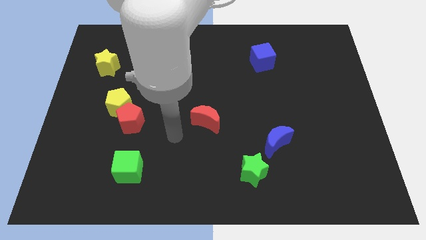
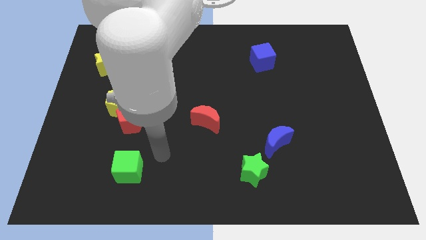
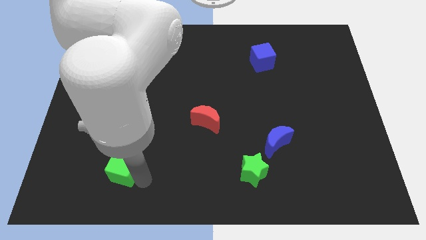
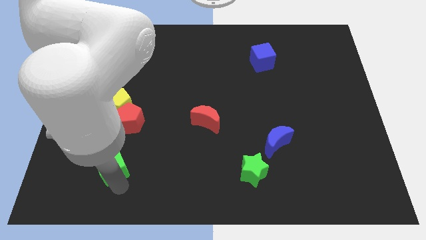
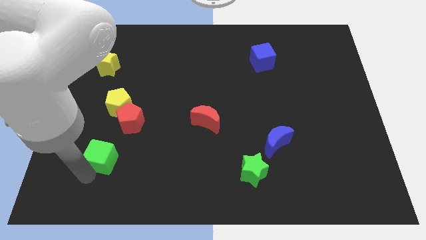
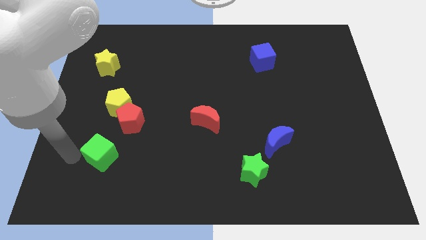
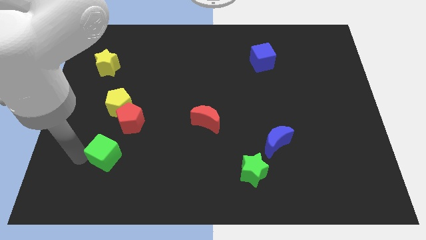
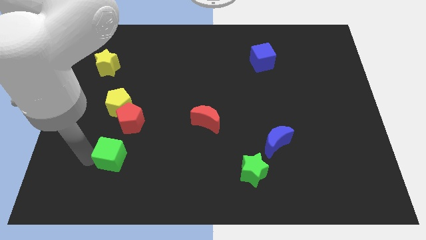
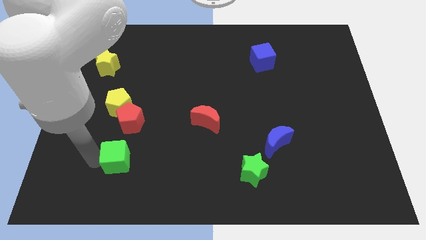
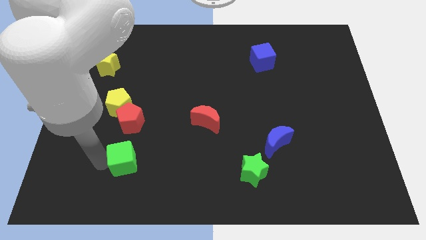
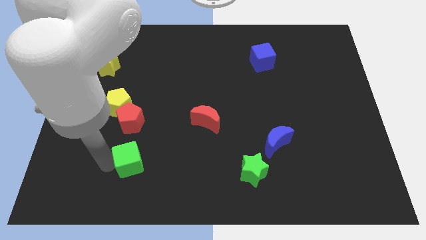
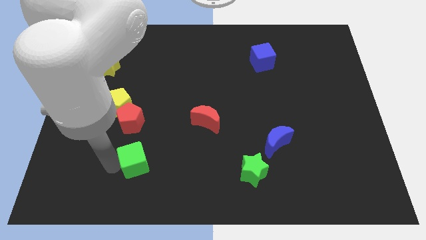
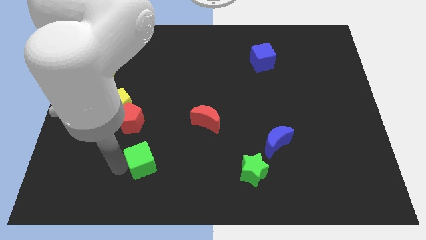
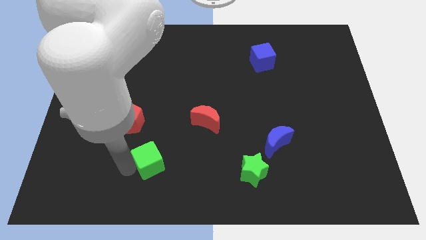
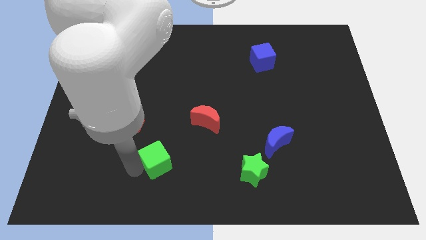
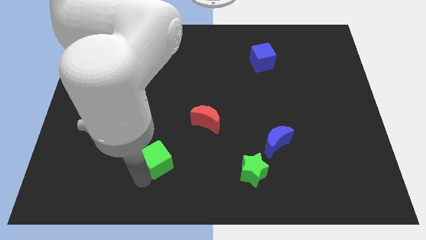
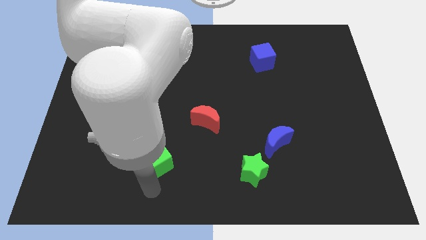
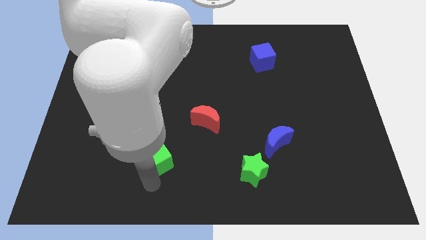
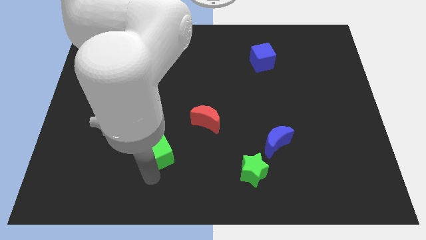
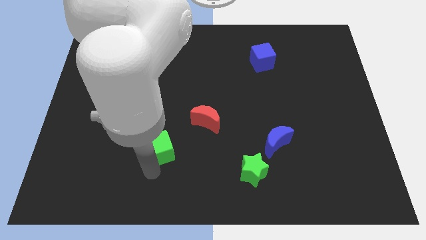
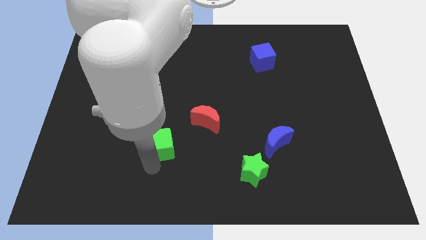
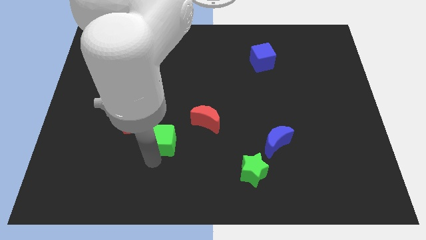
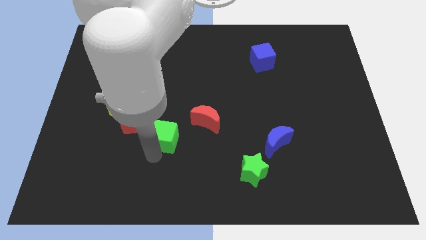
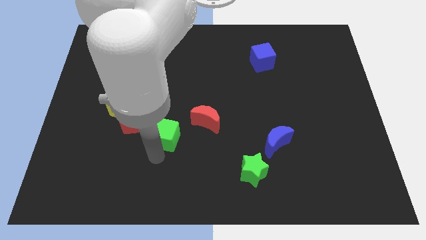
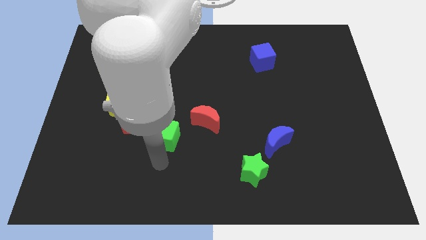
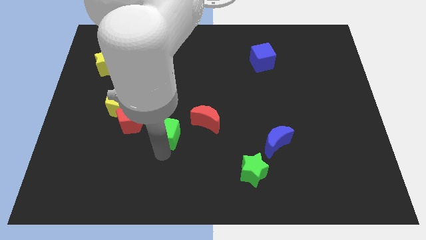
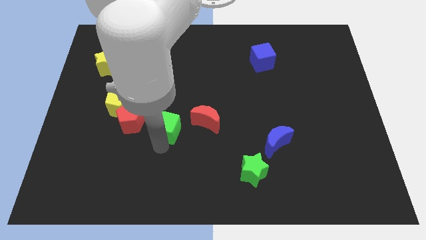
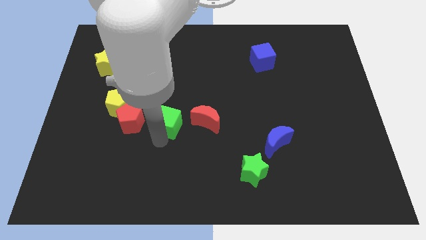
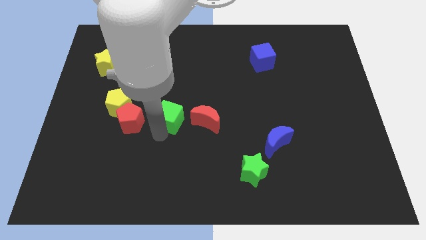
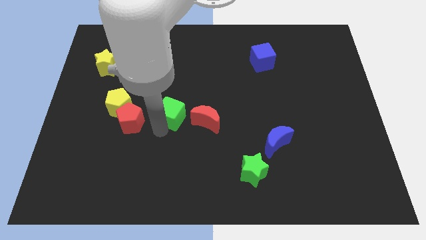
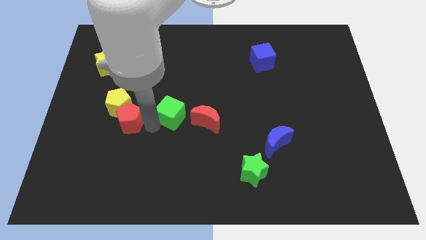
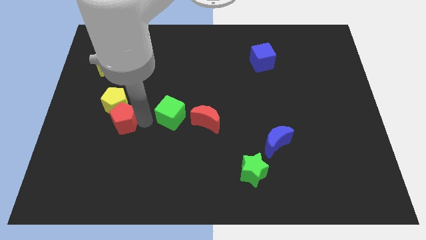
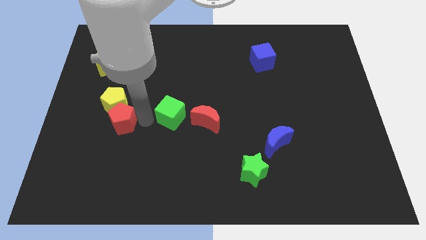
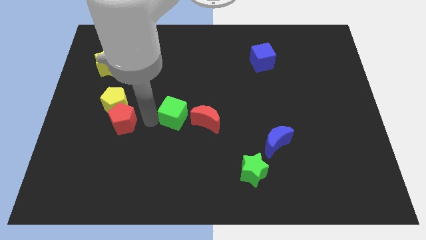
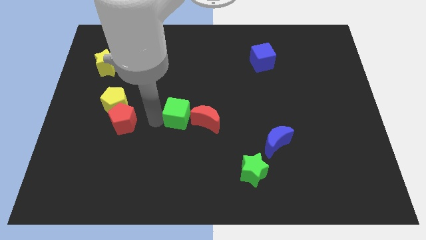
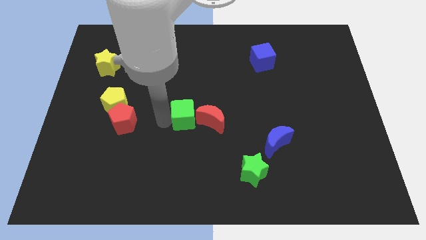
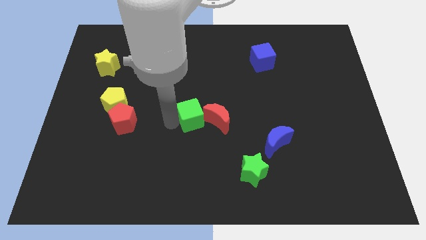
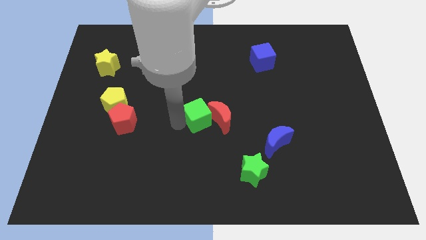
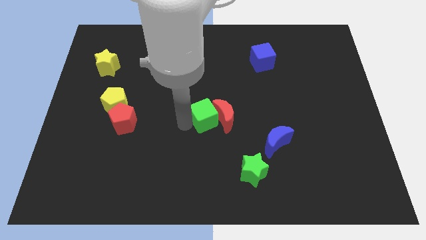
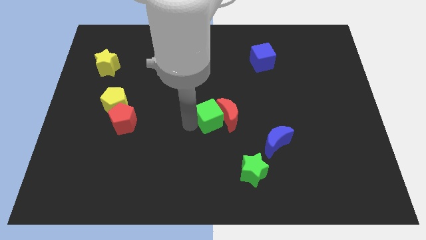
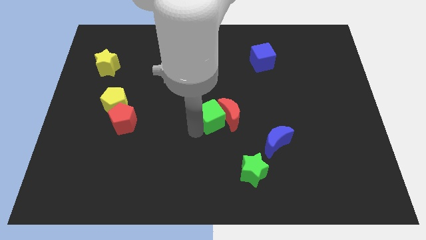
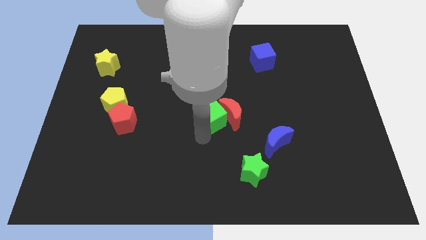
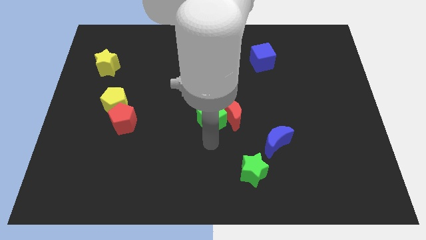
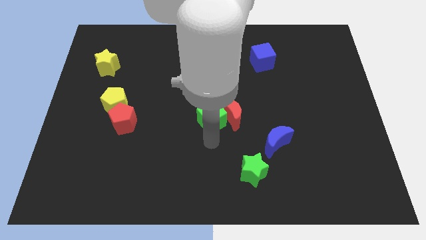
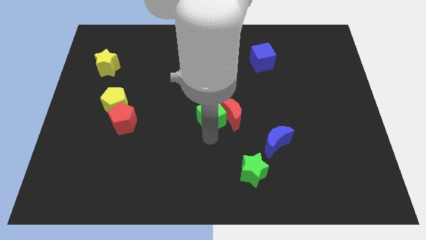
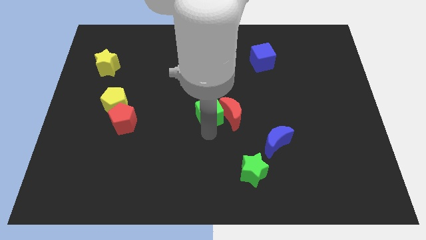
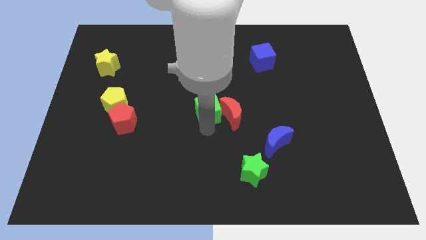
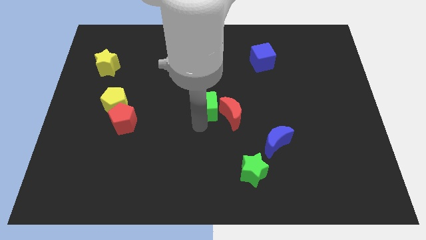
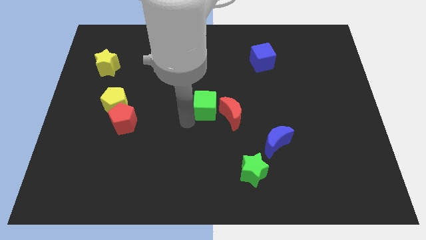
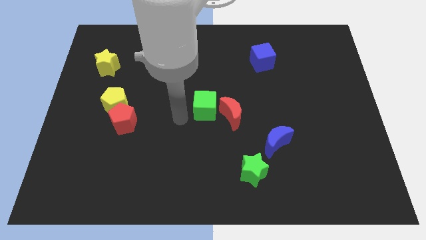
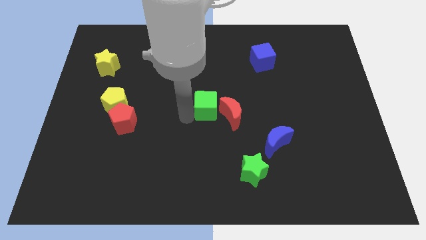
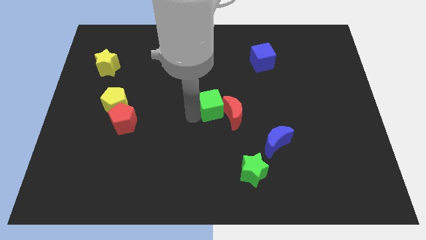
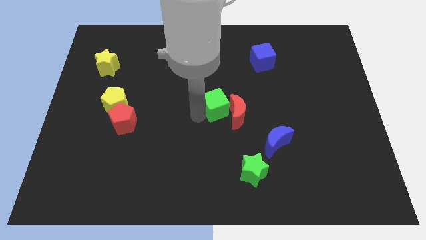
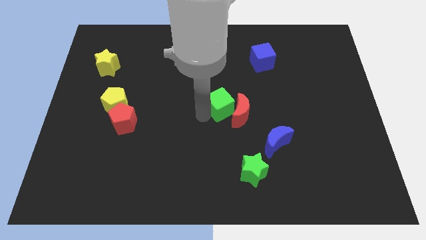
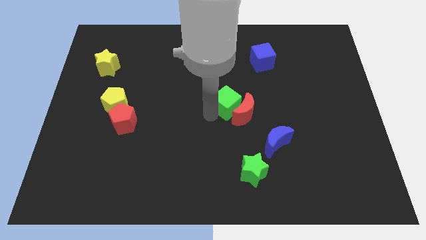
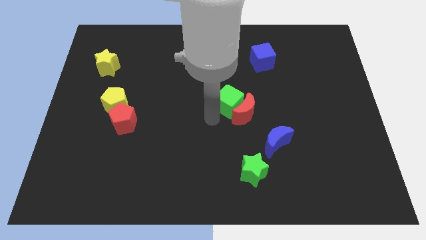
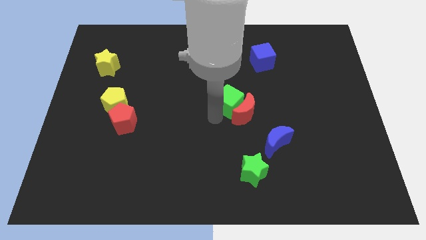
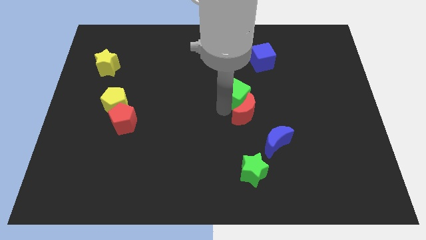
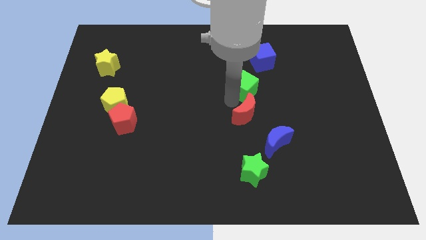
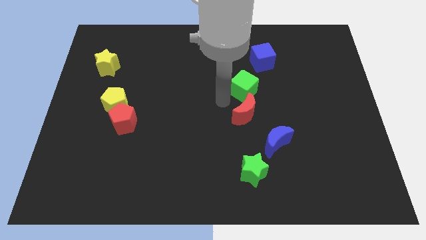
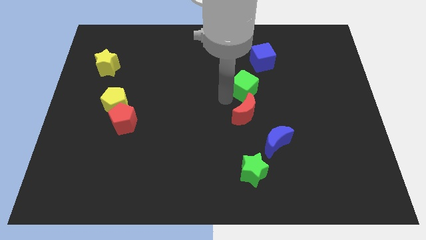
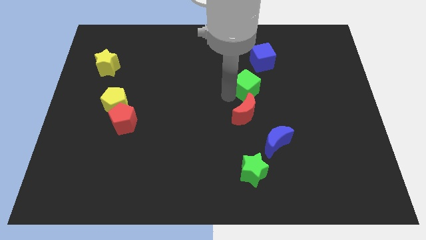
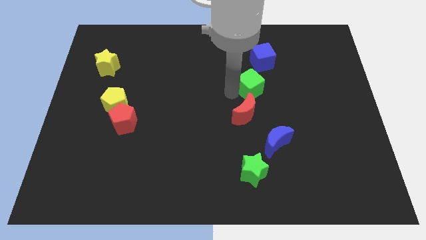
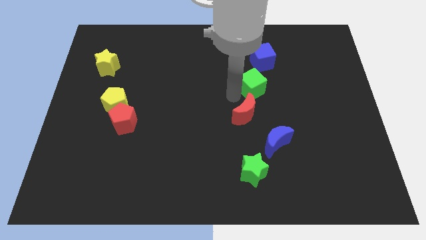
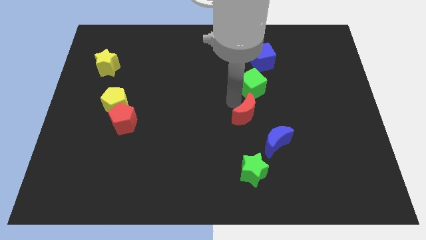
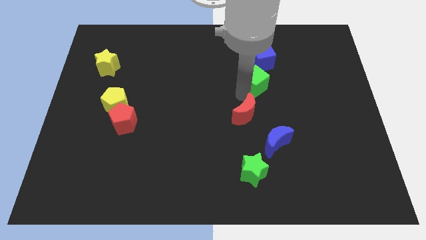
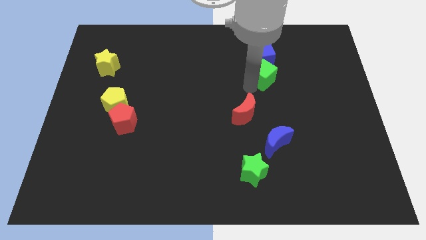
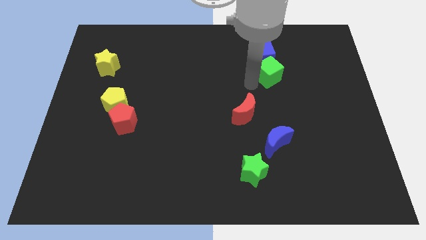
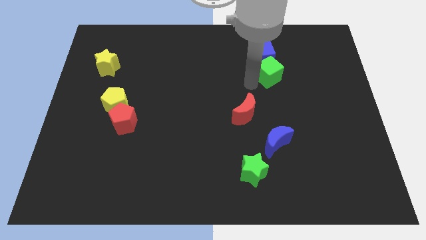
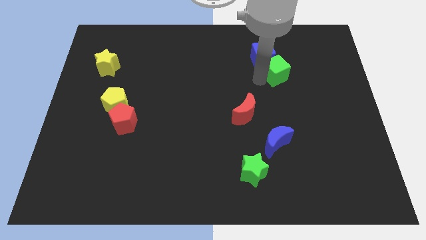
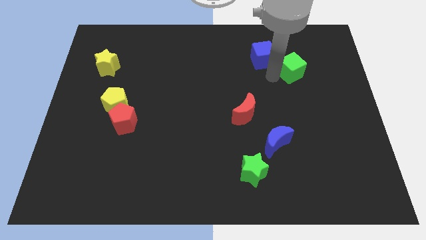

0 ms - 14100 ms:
push the green cube right of the blue cube
